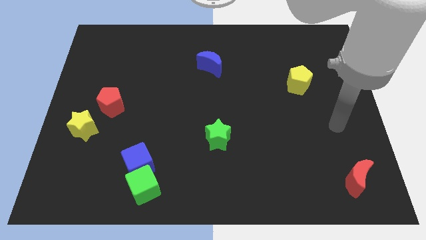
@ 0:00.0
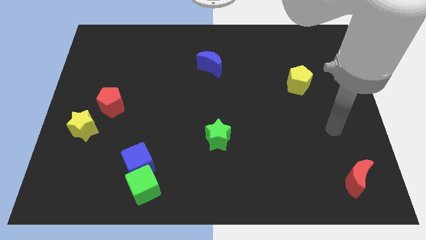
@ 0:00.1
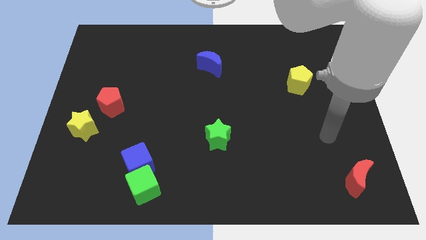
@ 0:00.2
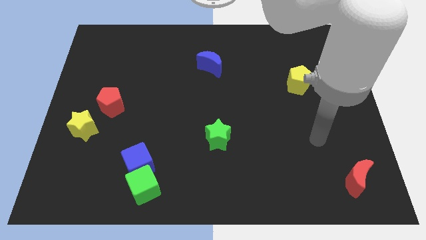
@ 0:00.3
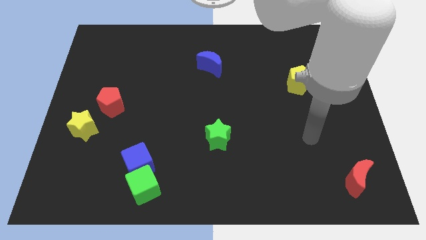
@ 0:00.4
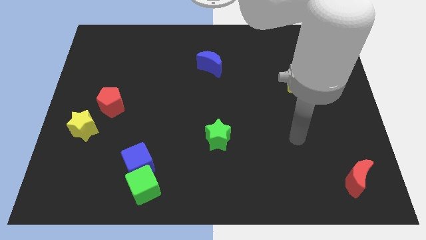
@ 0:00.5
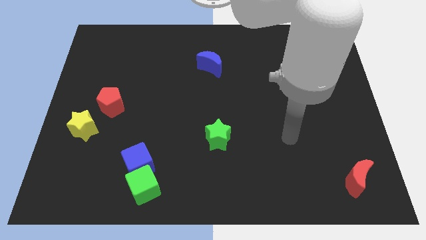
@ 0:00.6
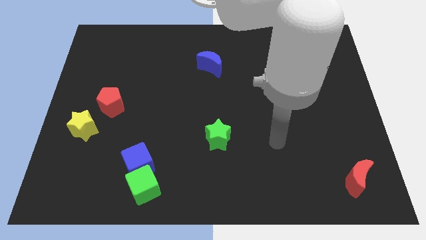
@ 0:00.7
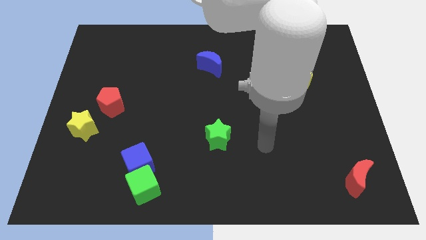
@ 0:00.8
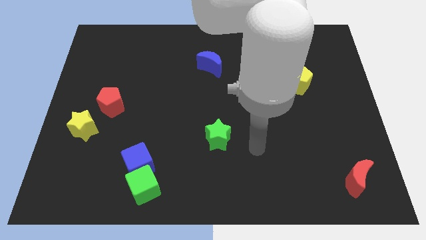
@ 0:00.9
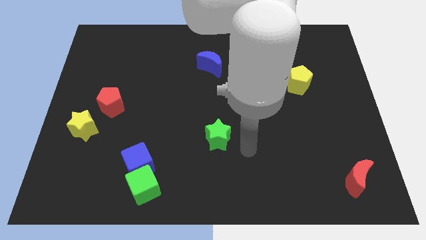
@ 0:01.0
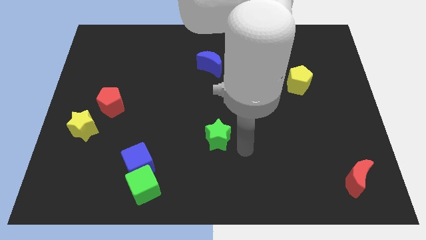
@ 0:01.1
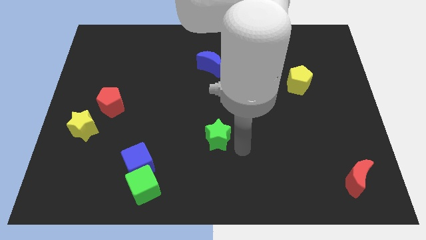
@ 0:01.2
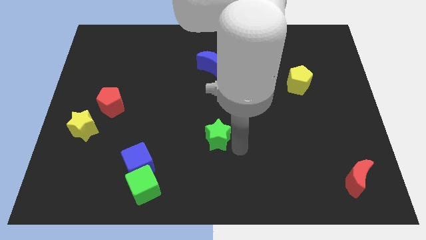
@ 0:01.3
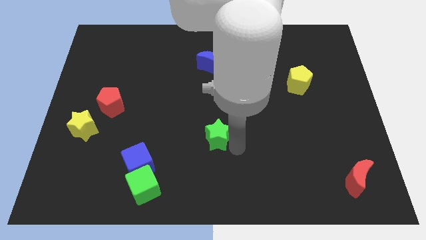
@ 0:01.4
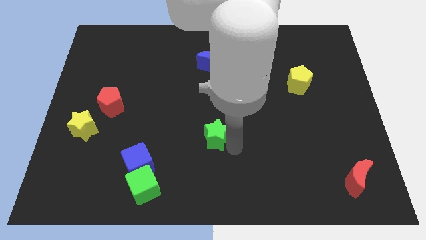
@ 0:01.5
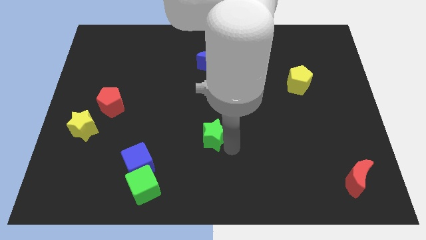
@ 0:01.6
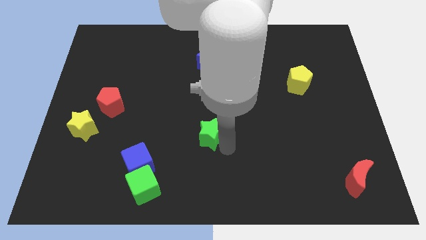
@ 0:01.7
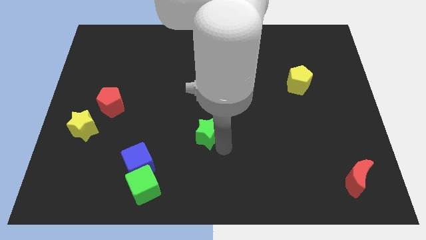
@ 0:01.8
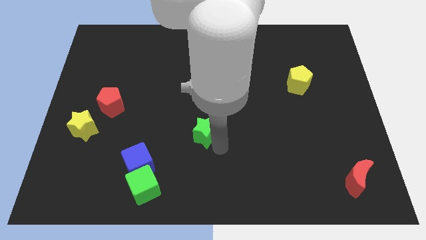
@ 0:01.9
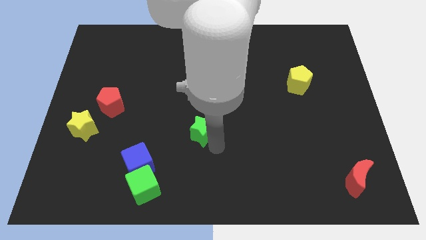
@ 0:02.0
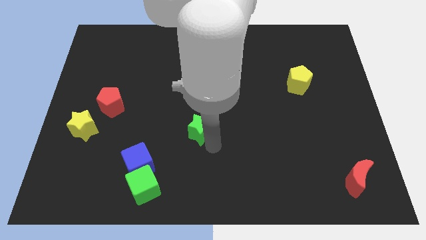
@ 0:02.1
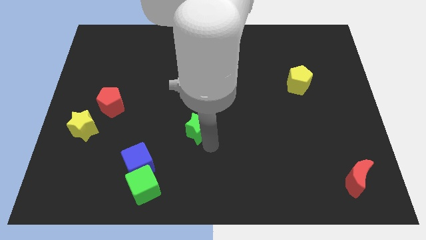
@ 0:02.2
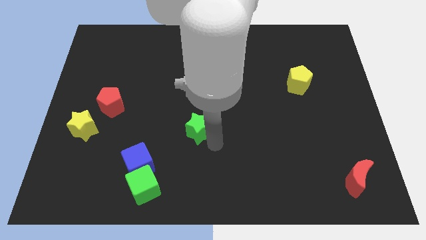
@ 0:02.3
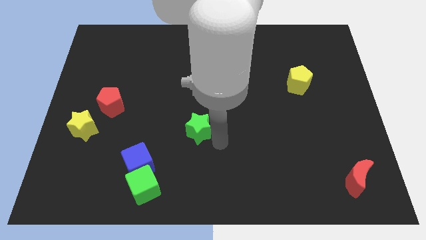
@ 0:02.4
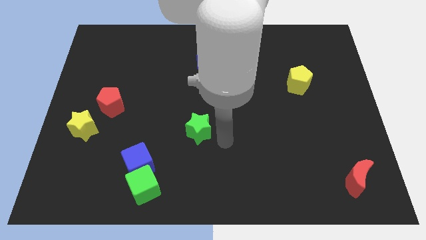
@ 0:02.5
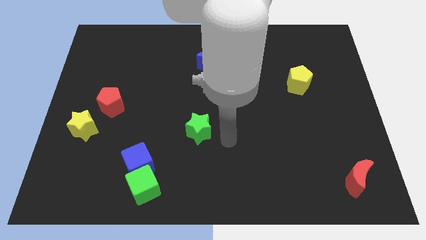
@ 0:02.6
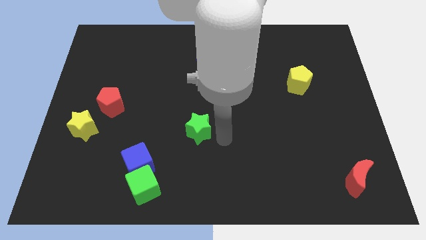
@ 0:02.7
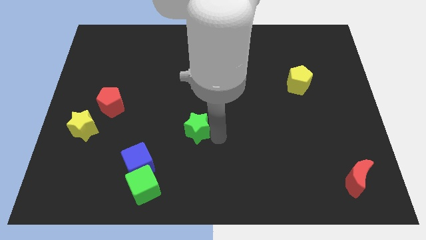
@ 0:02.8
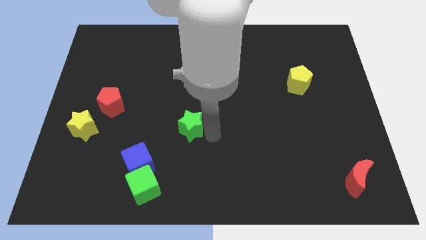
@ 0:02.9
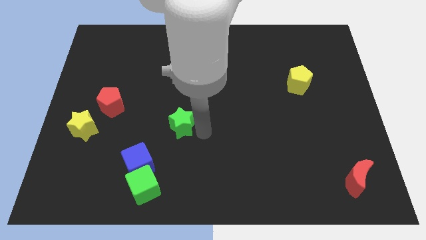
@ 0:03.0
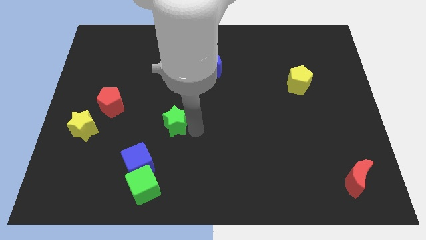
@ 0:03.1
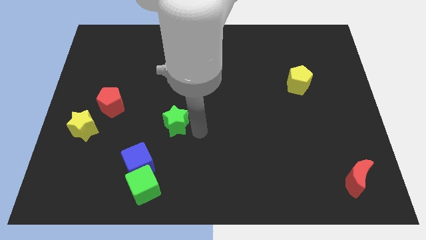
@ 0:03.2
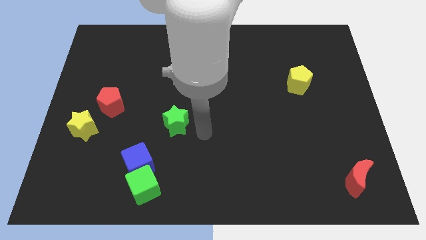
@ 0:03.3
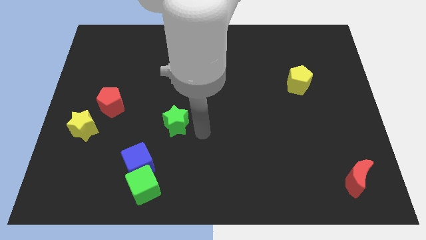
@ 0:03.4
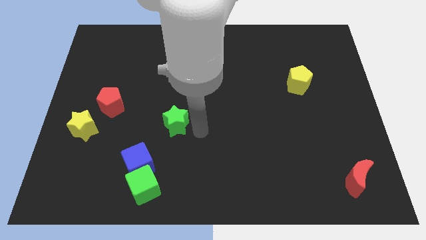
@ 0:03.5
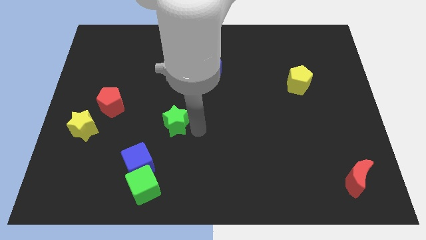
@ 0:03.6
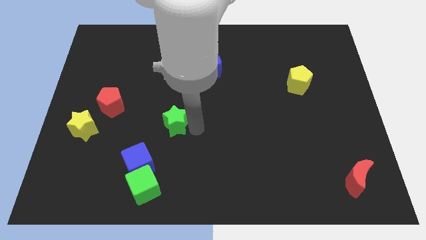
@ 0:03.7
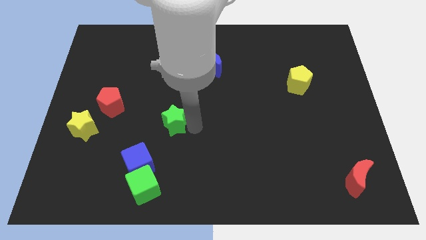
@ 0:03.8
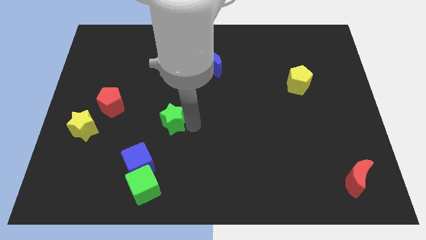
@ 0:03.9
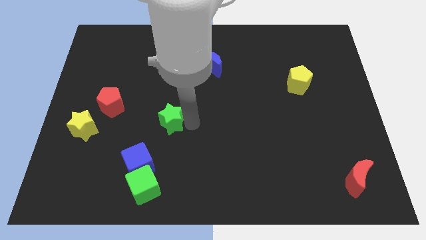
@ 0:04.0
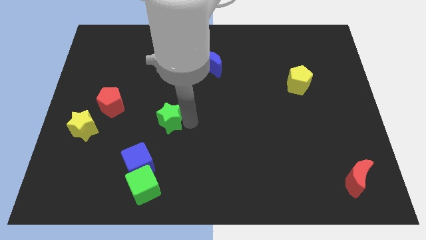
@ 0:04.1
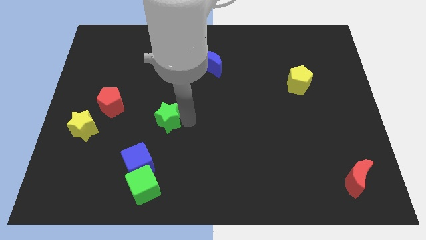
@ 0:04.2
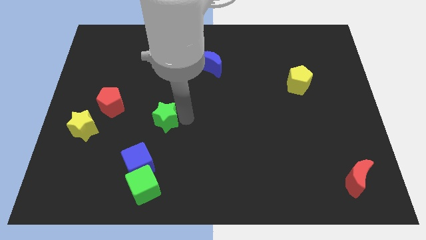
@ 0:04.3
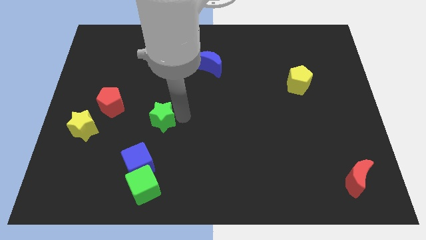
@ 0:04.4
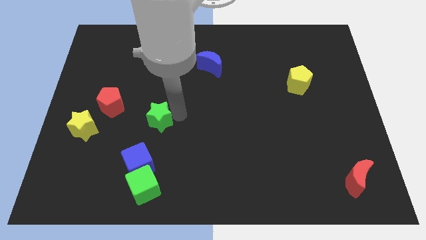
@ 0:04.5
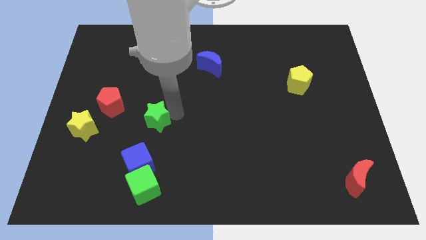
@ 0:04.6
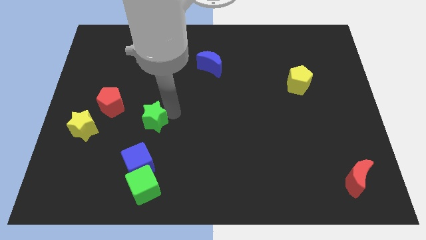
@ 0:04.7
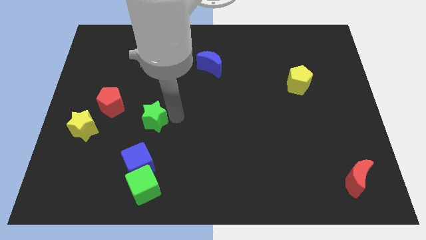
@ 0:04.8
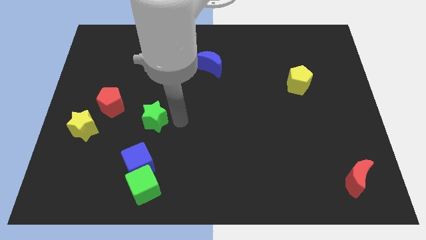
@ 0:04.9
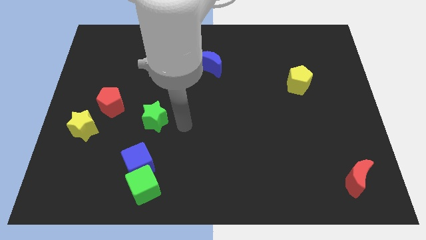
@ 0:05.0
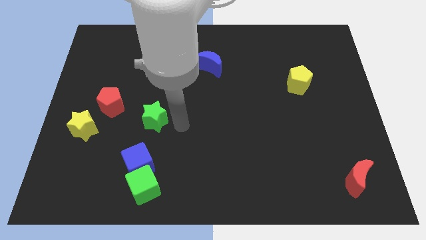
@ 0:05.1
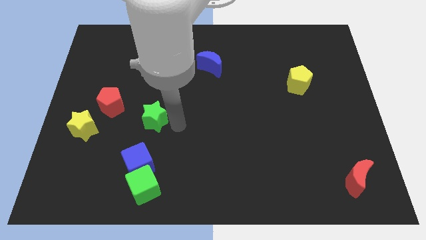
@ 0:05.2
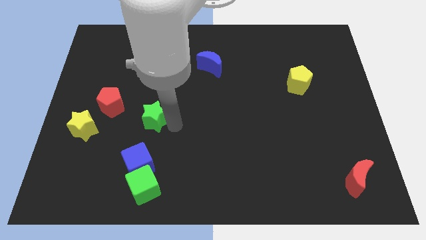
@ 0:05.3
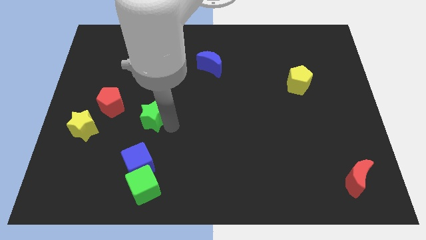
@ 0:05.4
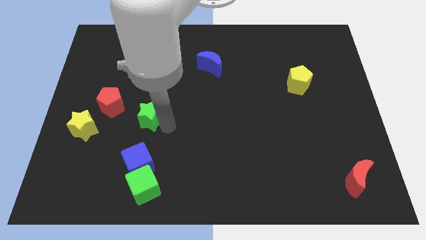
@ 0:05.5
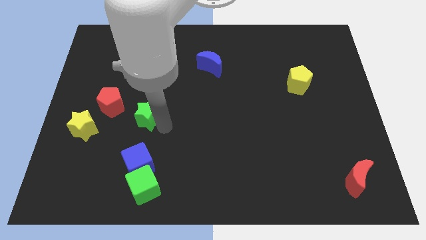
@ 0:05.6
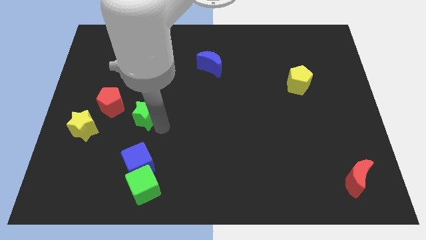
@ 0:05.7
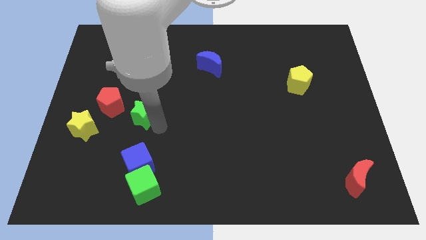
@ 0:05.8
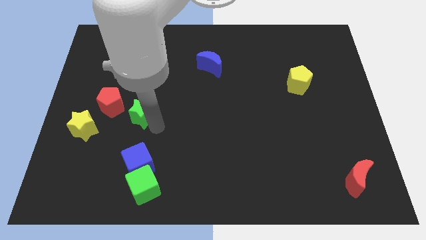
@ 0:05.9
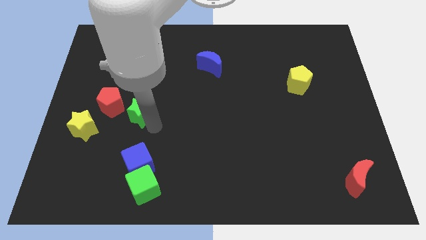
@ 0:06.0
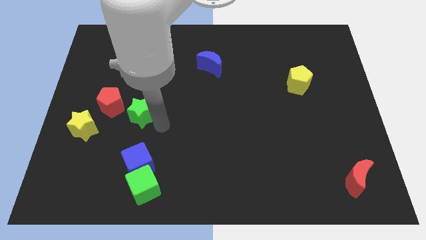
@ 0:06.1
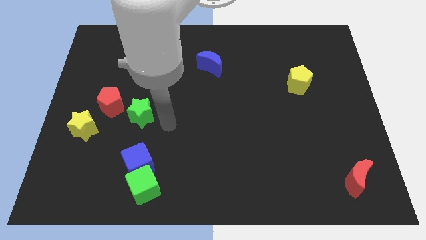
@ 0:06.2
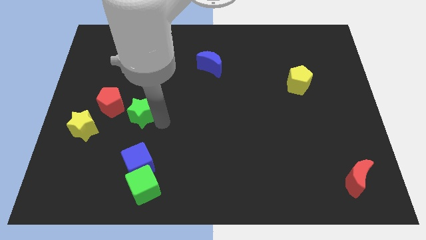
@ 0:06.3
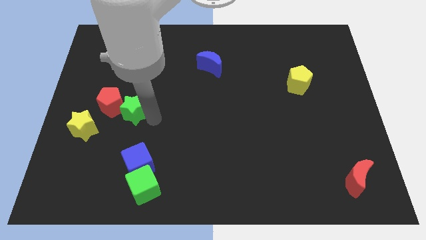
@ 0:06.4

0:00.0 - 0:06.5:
slide the green star close to the red pentagon

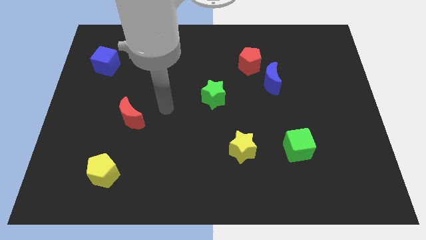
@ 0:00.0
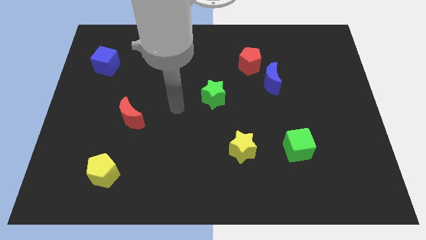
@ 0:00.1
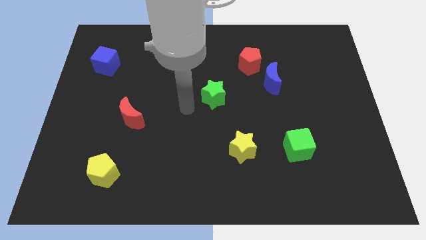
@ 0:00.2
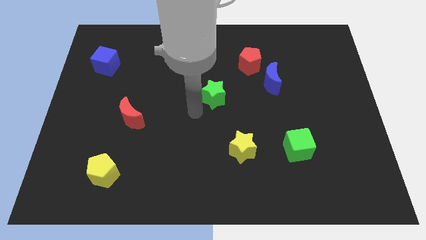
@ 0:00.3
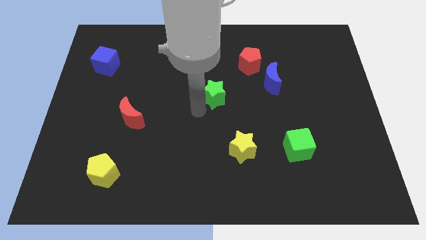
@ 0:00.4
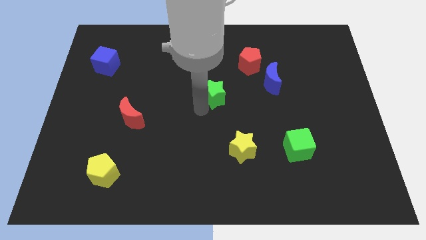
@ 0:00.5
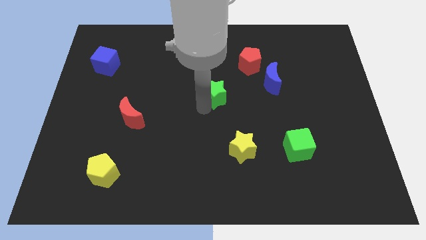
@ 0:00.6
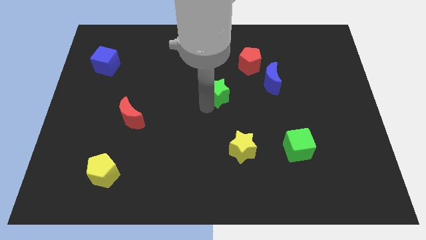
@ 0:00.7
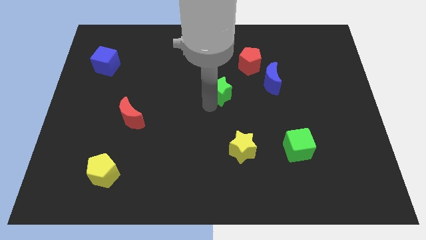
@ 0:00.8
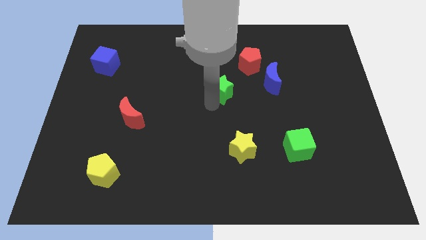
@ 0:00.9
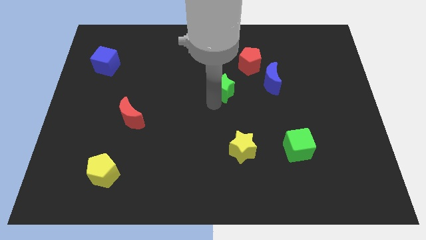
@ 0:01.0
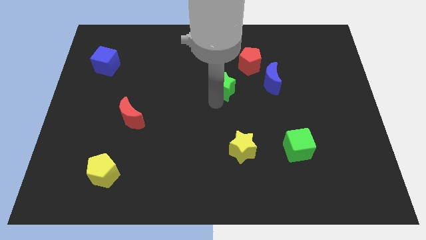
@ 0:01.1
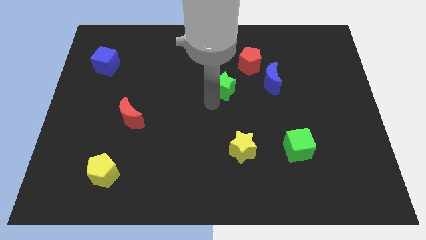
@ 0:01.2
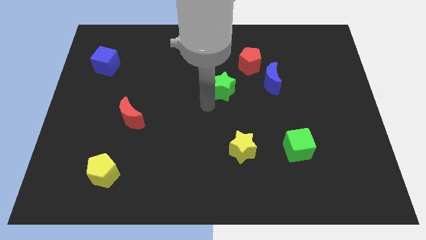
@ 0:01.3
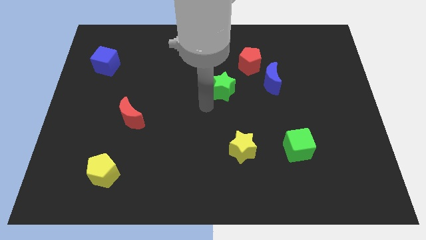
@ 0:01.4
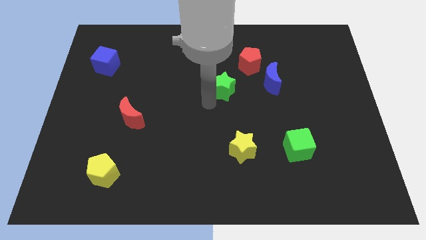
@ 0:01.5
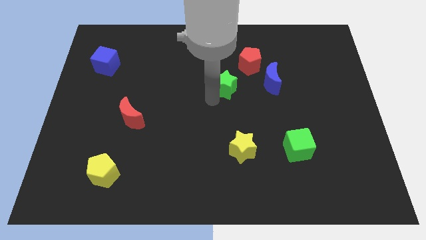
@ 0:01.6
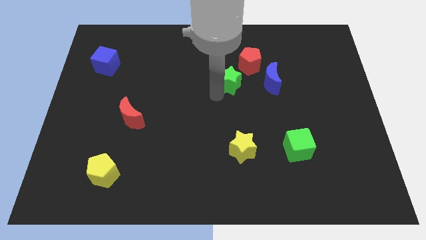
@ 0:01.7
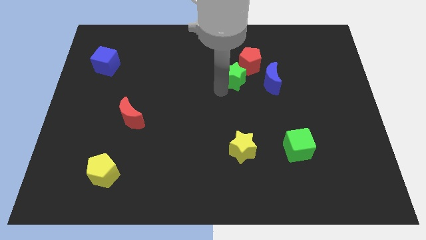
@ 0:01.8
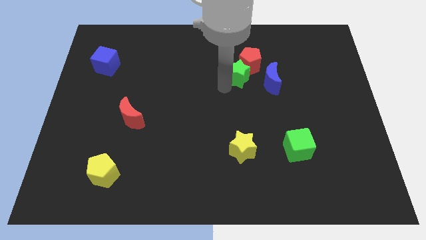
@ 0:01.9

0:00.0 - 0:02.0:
put the green star to the red pentagon
